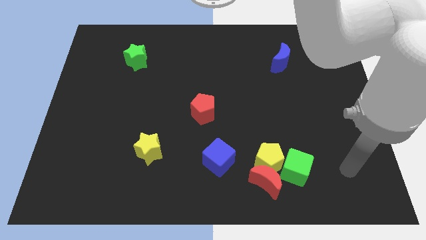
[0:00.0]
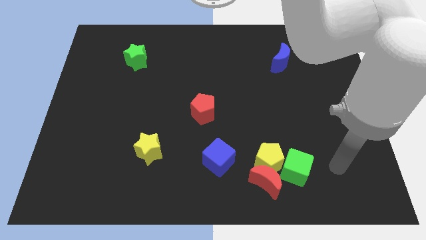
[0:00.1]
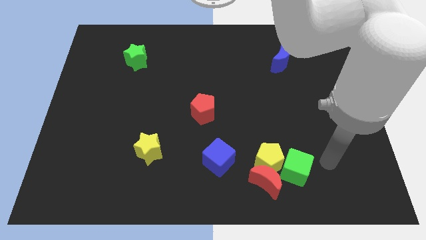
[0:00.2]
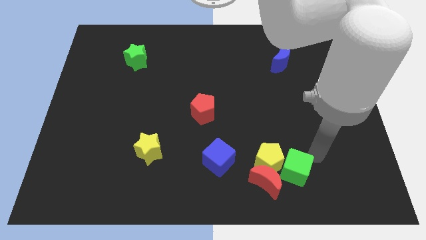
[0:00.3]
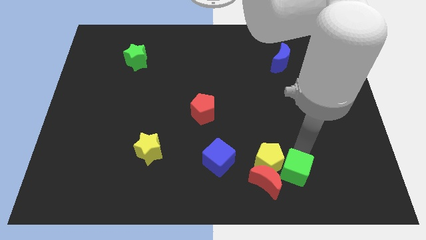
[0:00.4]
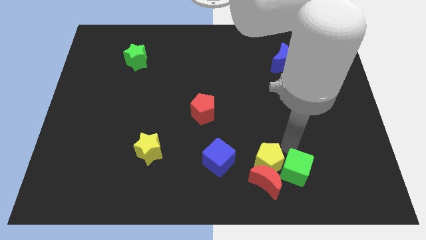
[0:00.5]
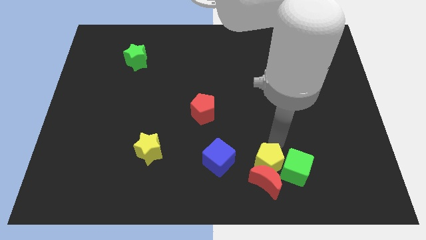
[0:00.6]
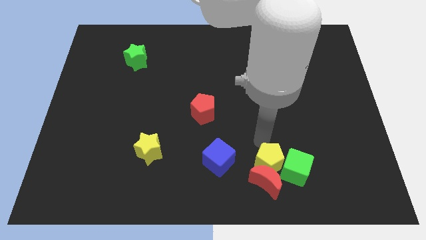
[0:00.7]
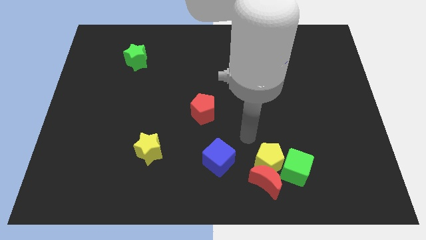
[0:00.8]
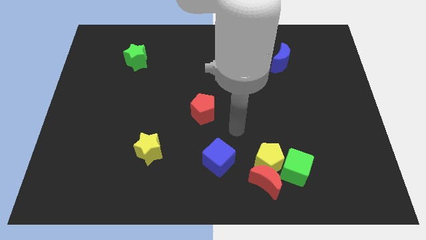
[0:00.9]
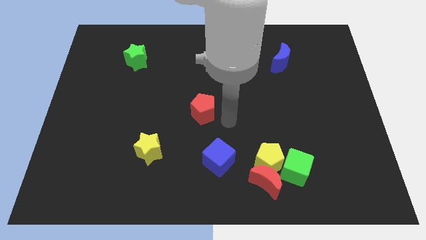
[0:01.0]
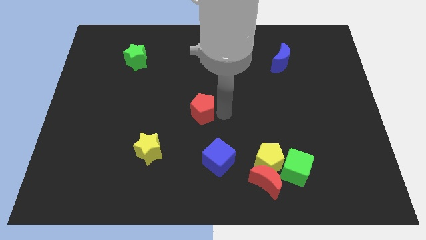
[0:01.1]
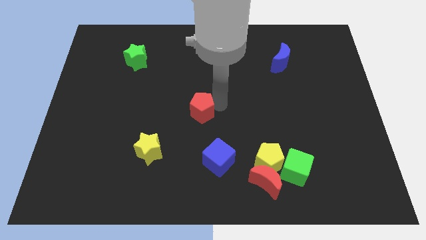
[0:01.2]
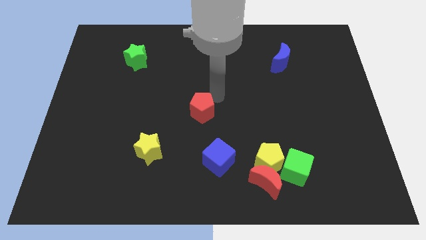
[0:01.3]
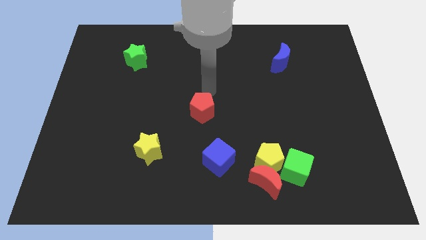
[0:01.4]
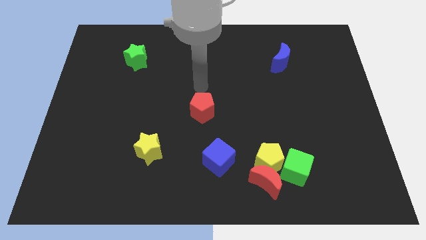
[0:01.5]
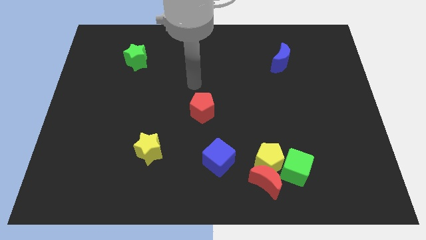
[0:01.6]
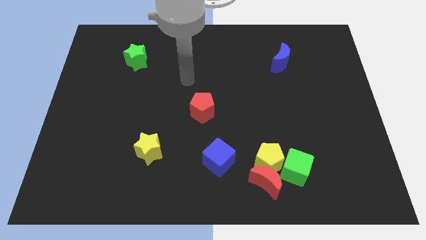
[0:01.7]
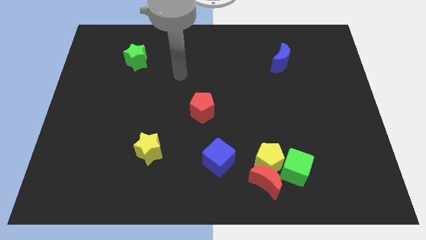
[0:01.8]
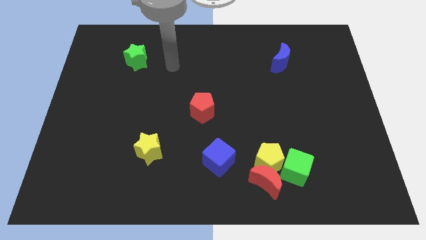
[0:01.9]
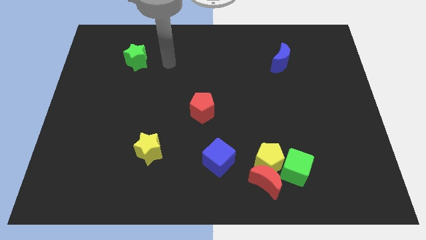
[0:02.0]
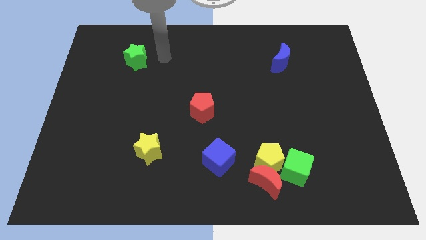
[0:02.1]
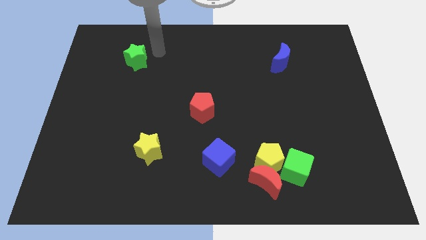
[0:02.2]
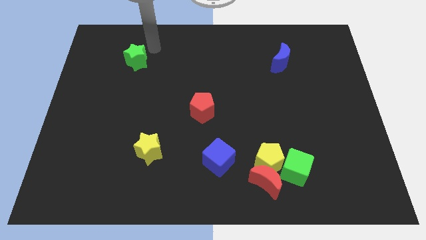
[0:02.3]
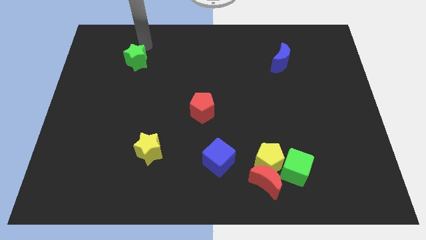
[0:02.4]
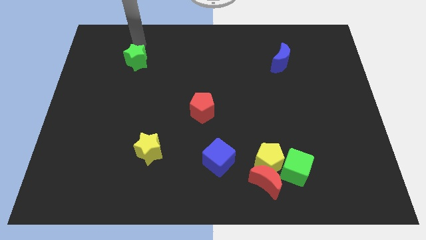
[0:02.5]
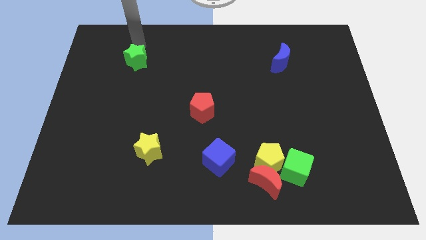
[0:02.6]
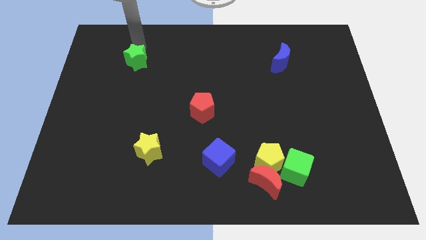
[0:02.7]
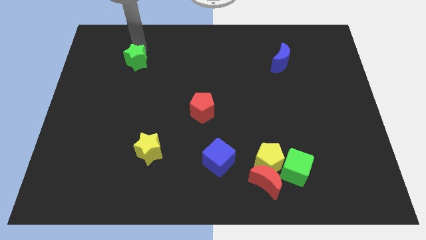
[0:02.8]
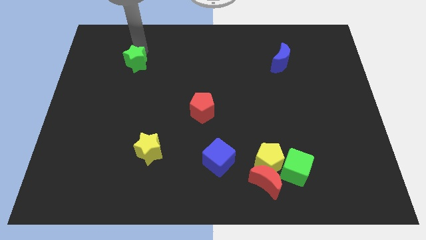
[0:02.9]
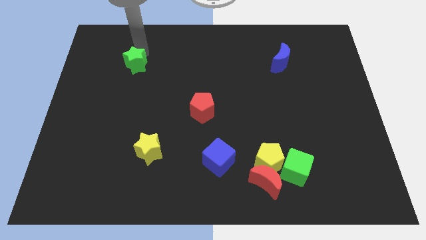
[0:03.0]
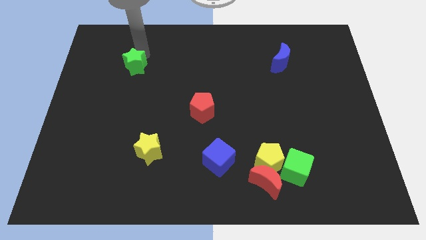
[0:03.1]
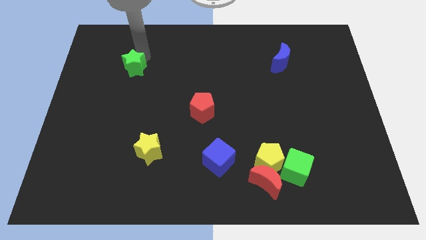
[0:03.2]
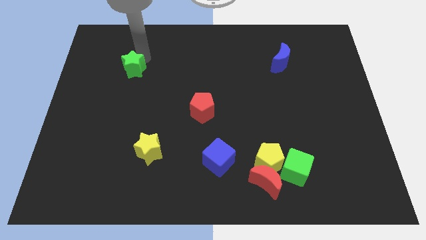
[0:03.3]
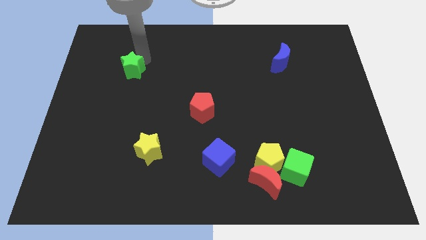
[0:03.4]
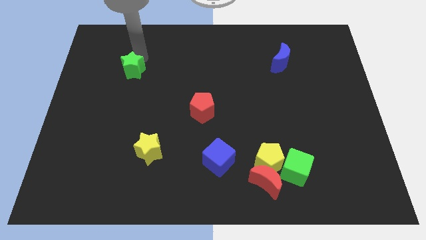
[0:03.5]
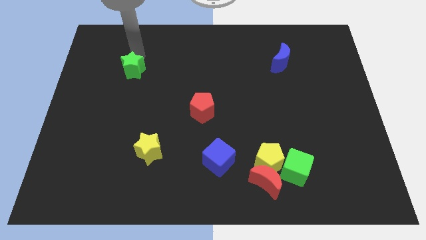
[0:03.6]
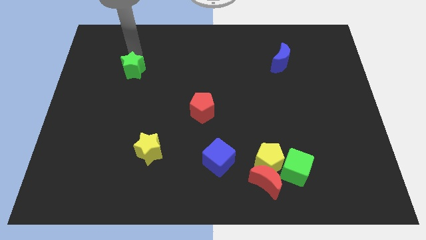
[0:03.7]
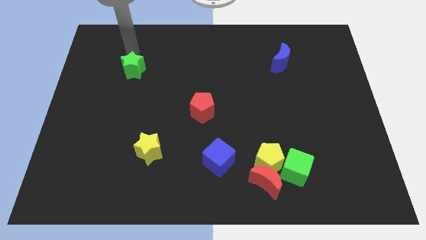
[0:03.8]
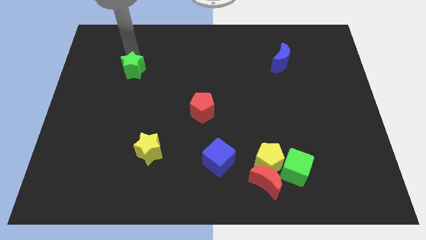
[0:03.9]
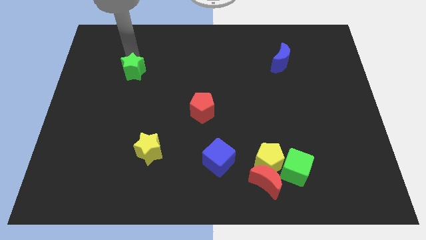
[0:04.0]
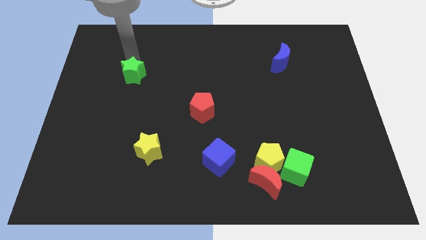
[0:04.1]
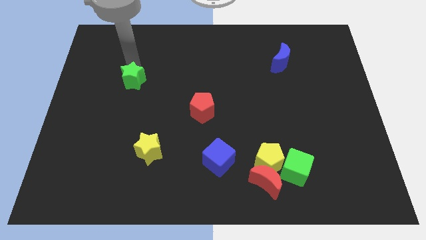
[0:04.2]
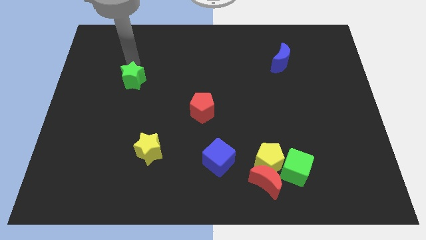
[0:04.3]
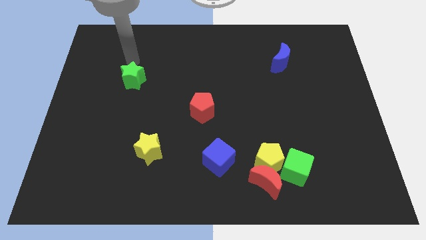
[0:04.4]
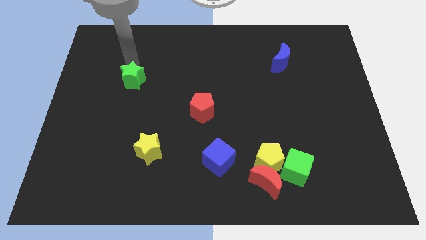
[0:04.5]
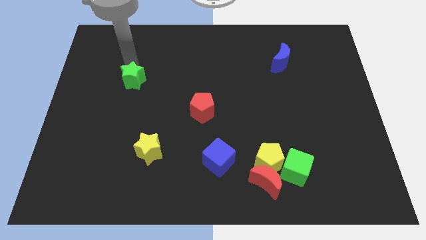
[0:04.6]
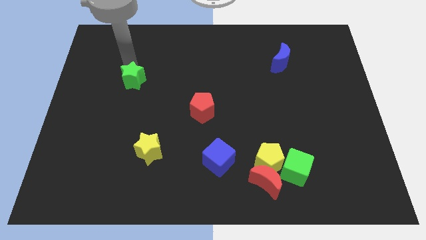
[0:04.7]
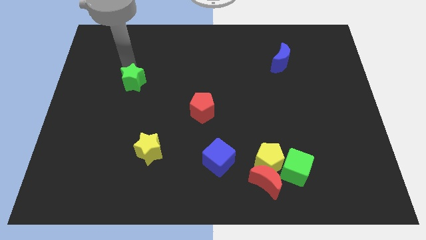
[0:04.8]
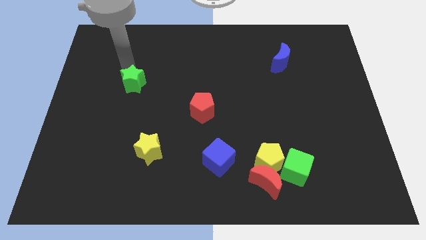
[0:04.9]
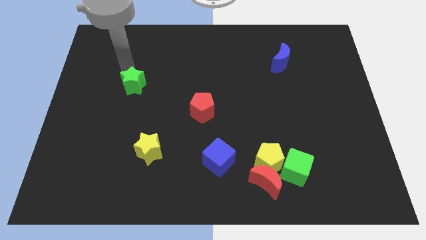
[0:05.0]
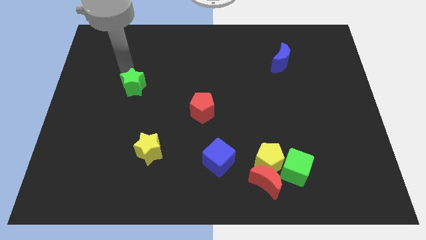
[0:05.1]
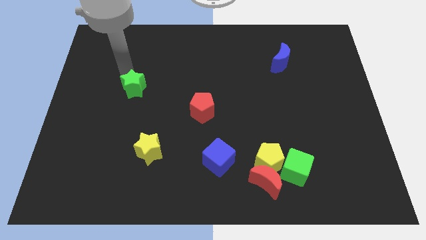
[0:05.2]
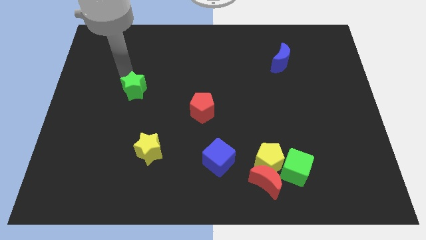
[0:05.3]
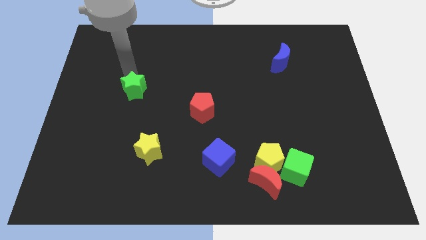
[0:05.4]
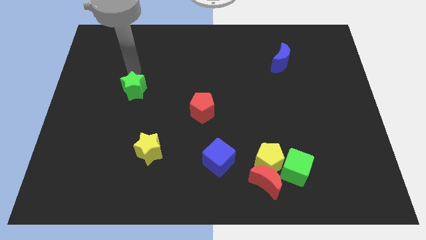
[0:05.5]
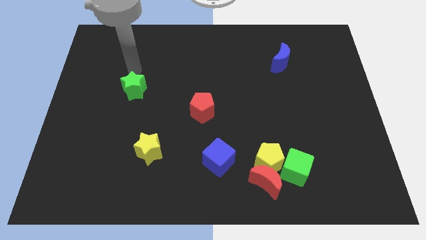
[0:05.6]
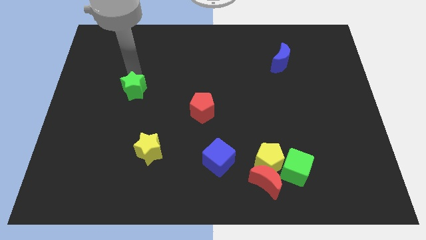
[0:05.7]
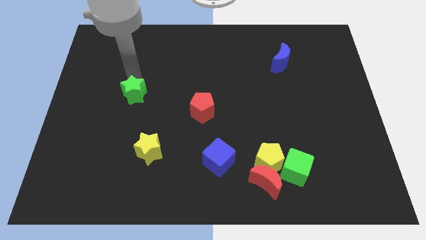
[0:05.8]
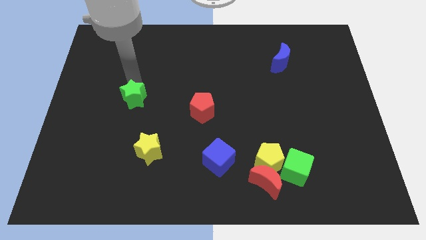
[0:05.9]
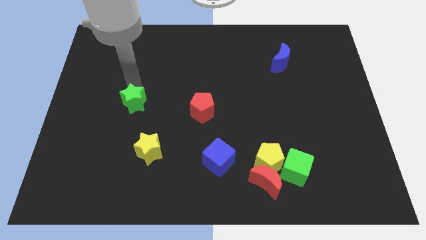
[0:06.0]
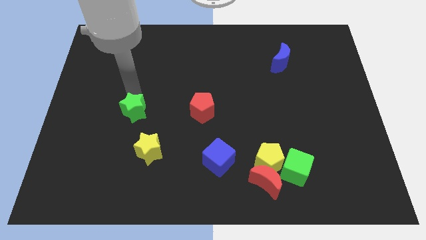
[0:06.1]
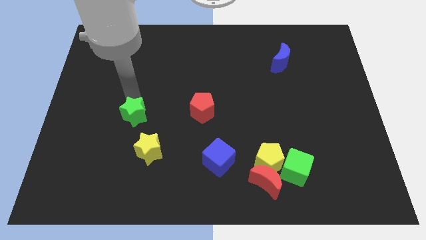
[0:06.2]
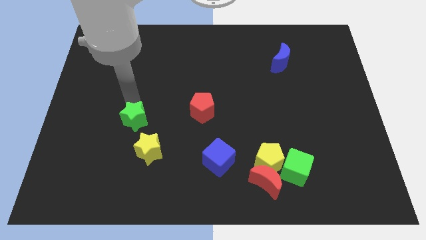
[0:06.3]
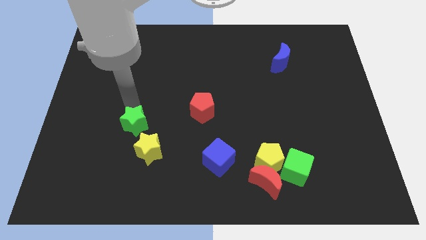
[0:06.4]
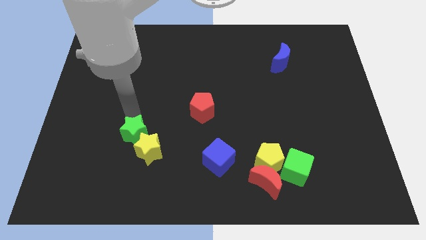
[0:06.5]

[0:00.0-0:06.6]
push the green star next to the yellow star
